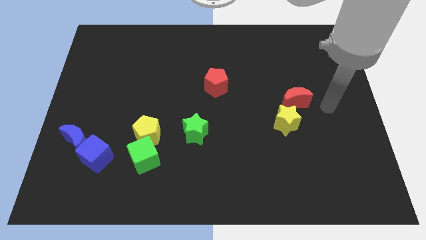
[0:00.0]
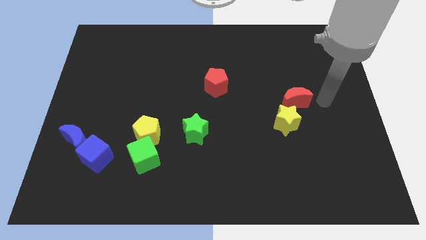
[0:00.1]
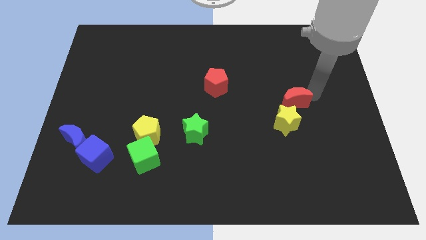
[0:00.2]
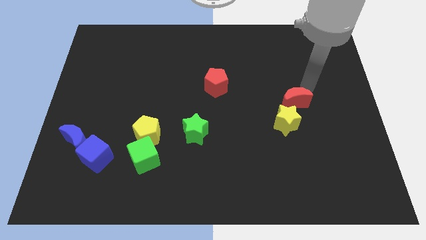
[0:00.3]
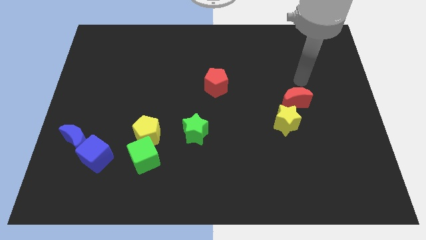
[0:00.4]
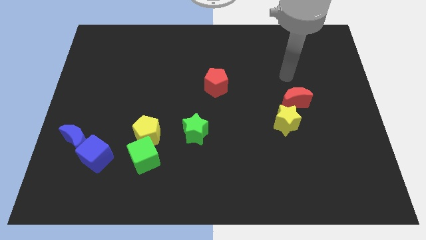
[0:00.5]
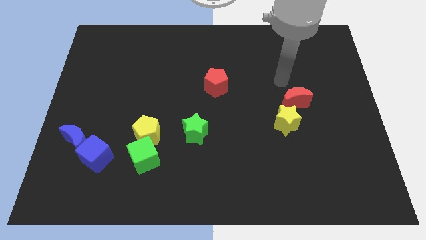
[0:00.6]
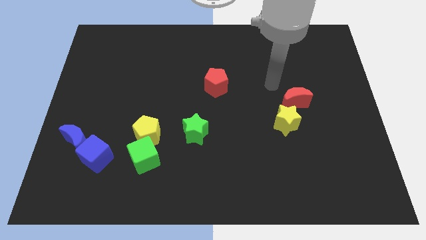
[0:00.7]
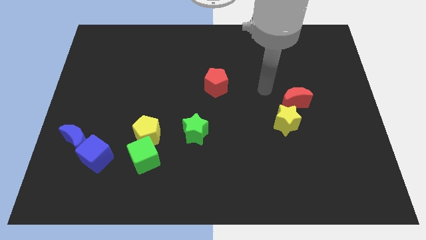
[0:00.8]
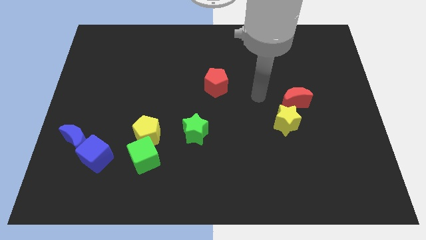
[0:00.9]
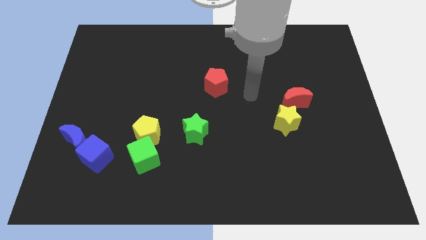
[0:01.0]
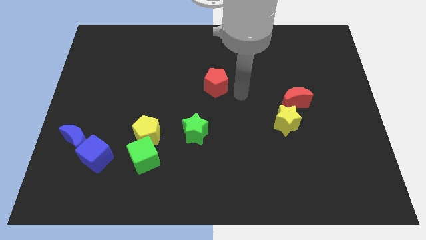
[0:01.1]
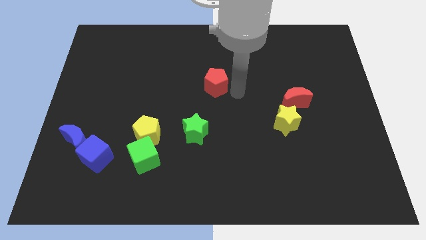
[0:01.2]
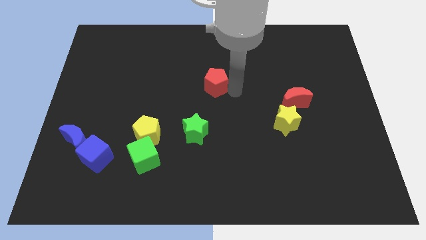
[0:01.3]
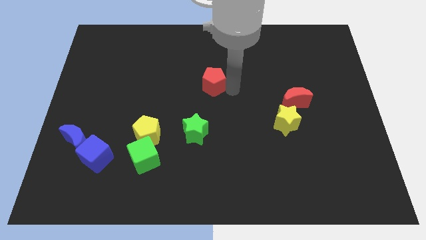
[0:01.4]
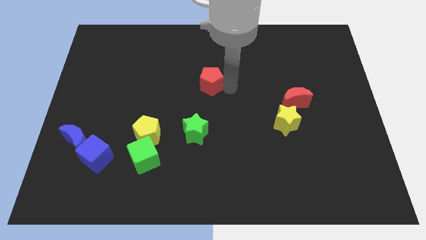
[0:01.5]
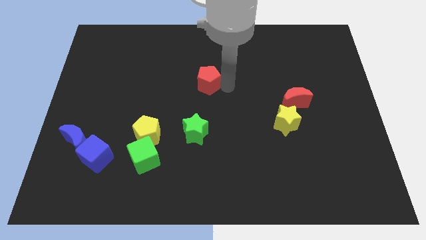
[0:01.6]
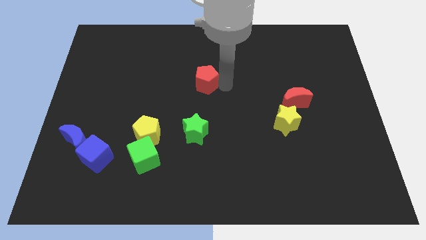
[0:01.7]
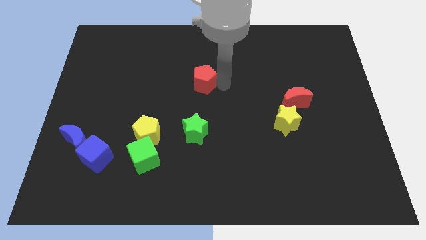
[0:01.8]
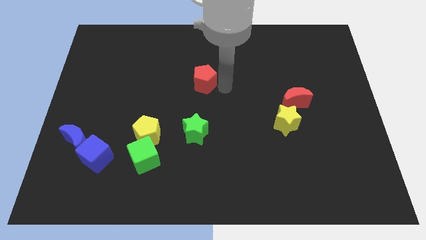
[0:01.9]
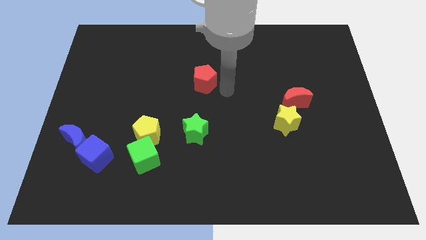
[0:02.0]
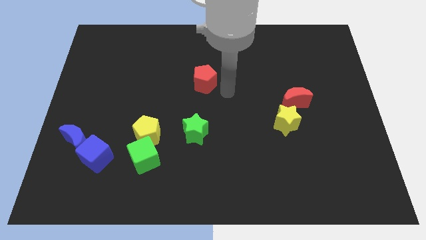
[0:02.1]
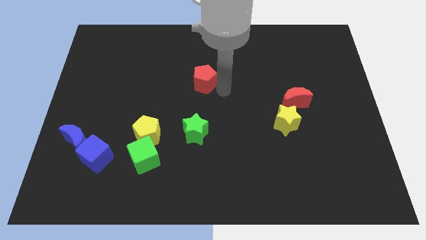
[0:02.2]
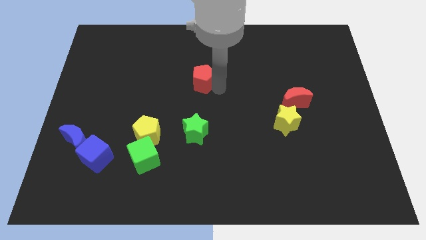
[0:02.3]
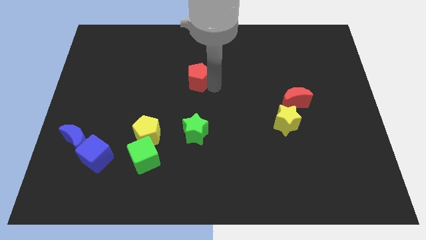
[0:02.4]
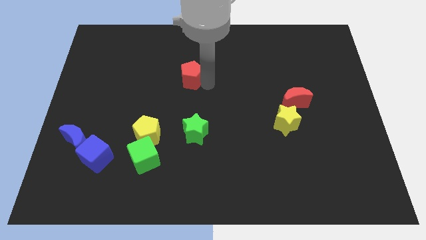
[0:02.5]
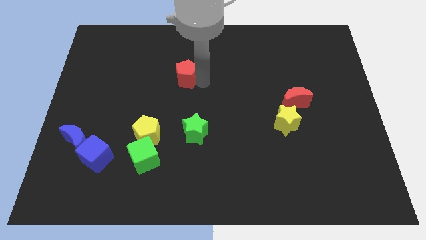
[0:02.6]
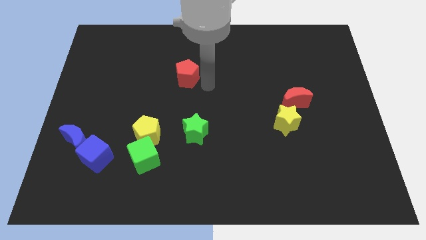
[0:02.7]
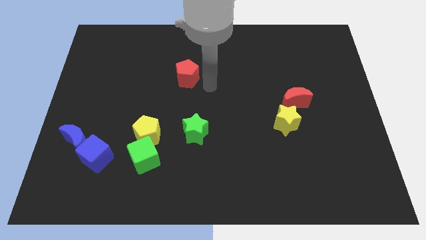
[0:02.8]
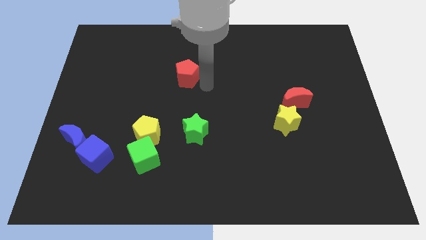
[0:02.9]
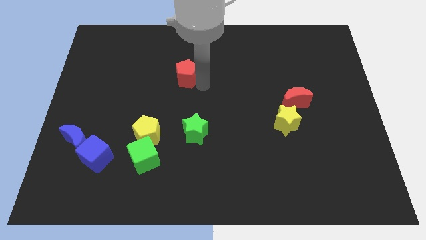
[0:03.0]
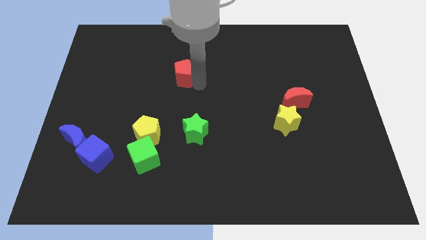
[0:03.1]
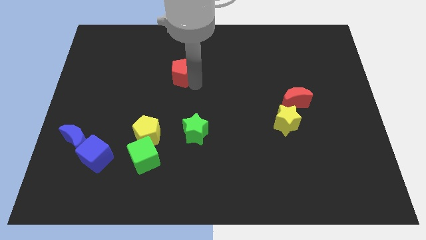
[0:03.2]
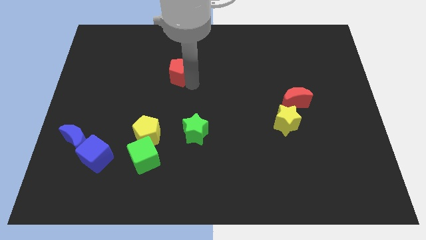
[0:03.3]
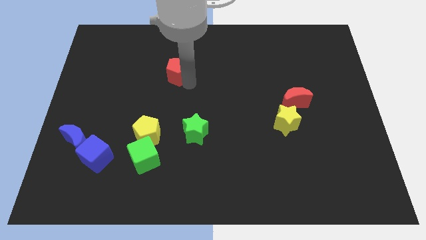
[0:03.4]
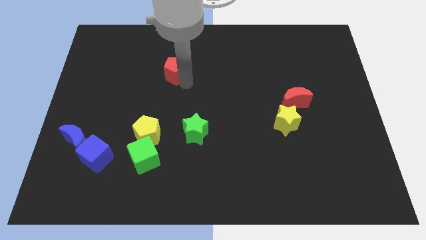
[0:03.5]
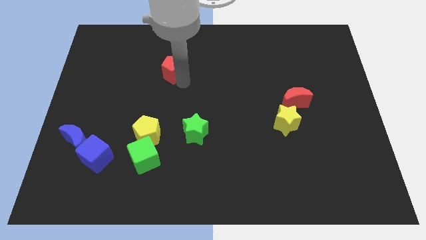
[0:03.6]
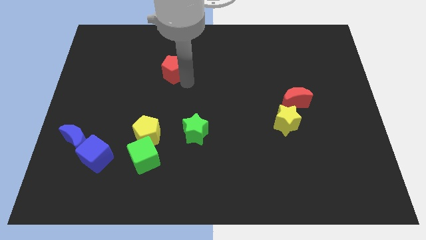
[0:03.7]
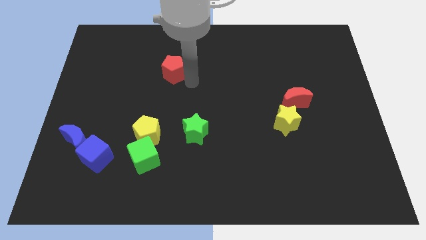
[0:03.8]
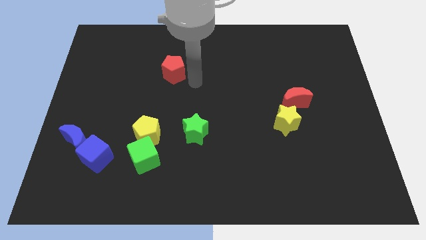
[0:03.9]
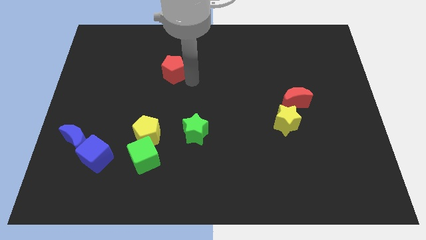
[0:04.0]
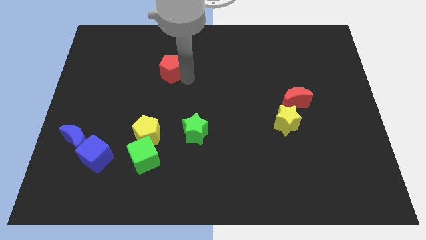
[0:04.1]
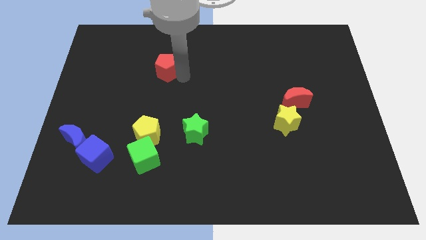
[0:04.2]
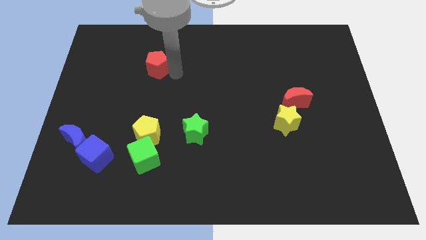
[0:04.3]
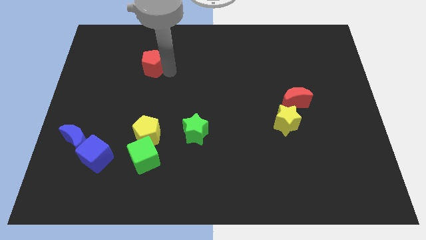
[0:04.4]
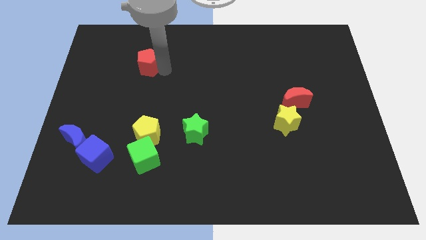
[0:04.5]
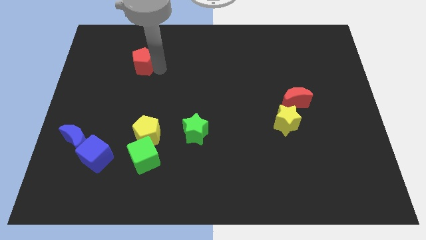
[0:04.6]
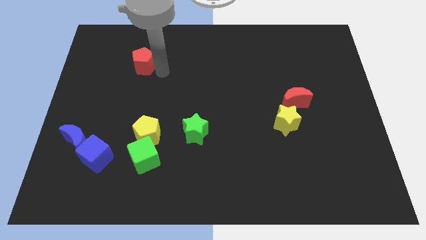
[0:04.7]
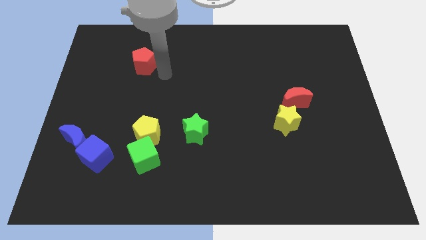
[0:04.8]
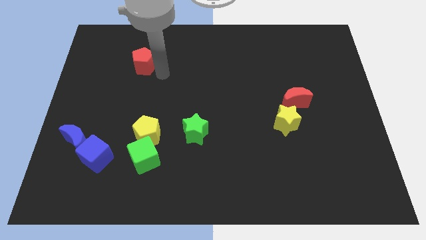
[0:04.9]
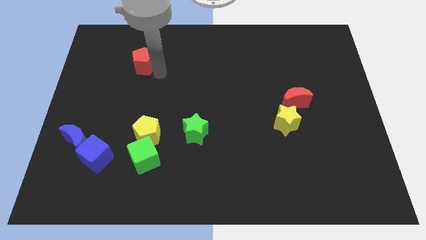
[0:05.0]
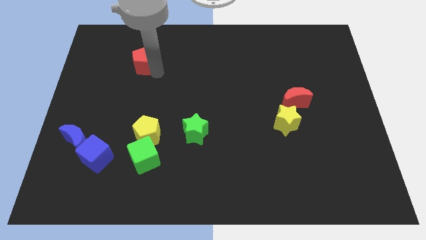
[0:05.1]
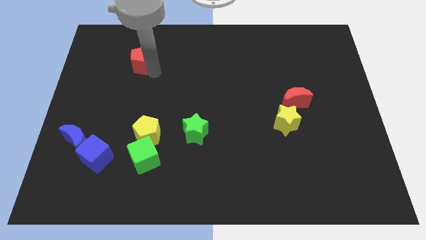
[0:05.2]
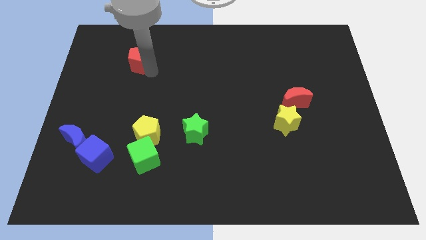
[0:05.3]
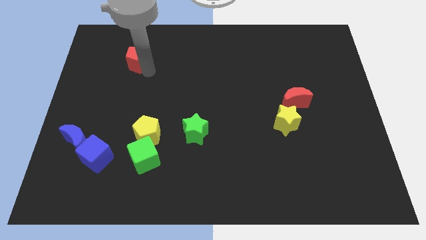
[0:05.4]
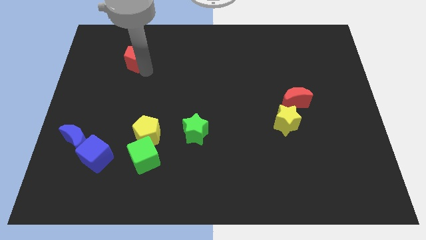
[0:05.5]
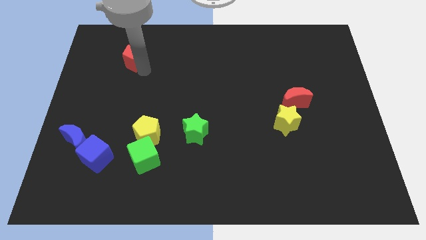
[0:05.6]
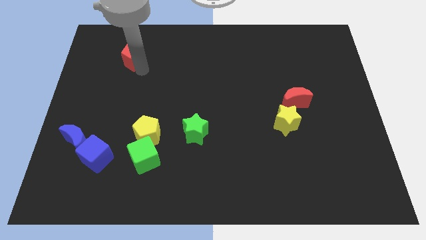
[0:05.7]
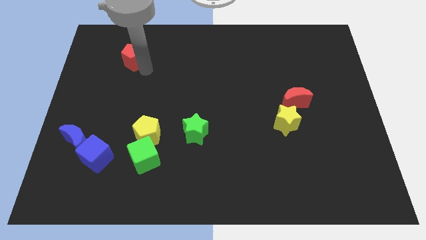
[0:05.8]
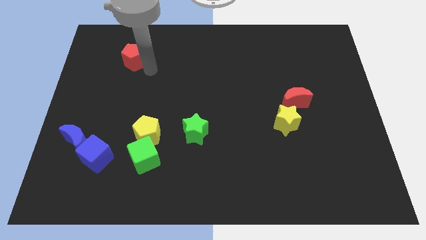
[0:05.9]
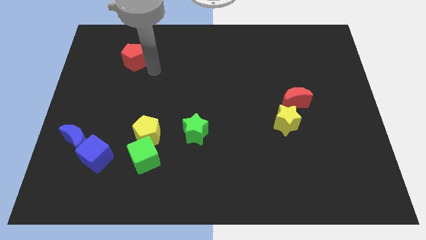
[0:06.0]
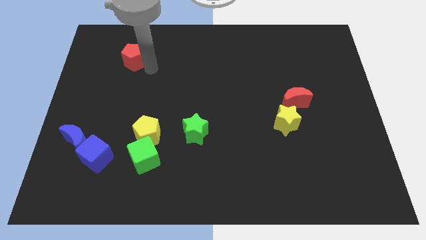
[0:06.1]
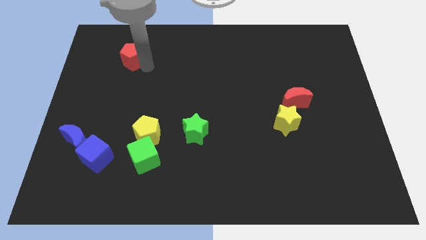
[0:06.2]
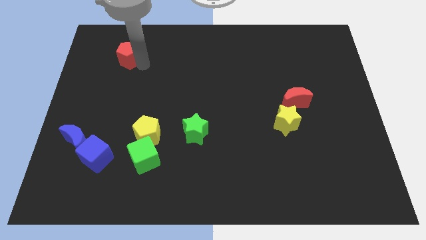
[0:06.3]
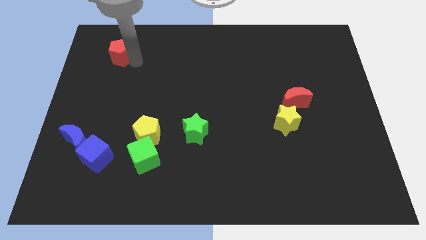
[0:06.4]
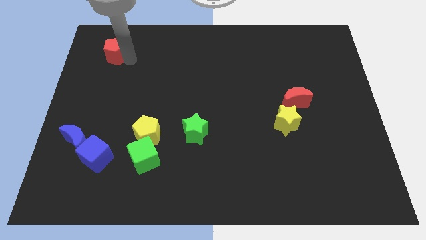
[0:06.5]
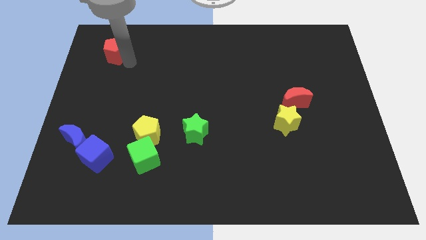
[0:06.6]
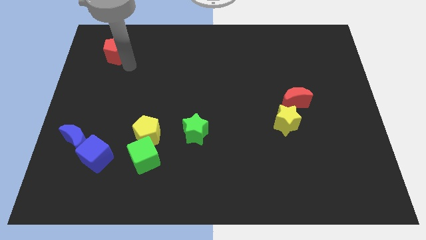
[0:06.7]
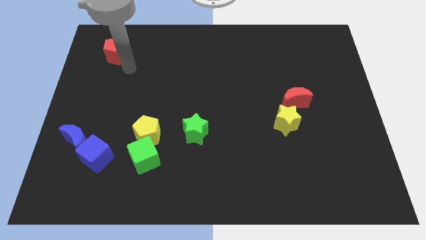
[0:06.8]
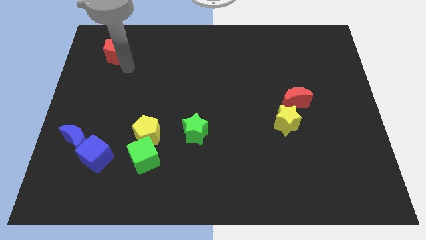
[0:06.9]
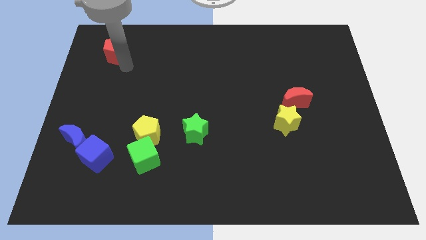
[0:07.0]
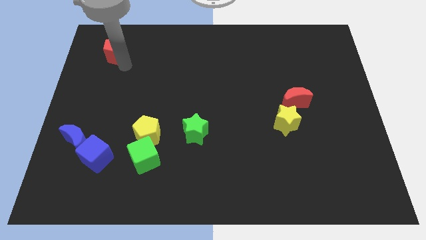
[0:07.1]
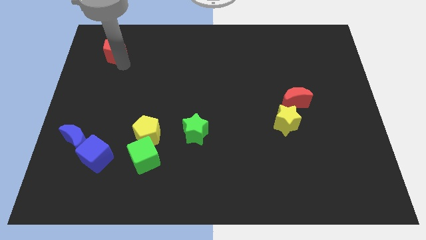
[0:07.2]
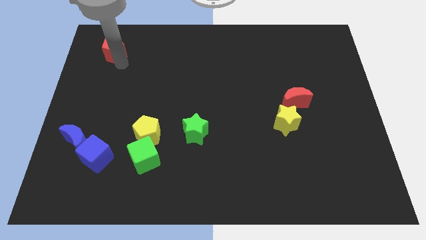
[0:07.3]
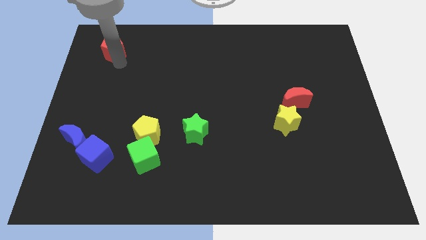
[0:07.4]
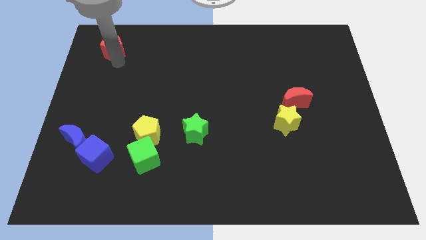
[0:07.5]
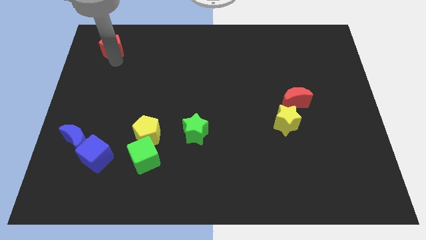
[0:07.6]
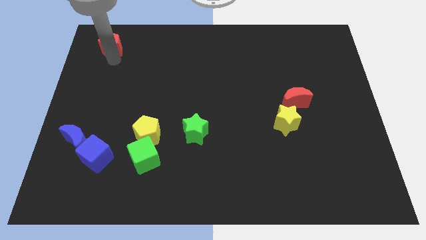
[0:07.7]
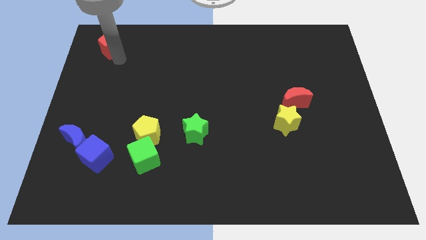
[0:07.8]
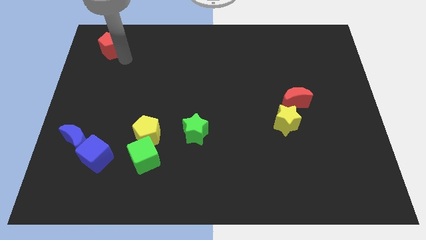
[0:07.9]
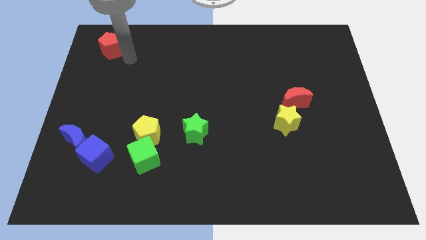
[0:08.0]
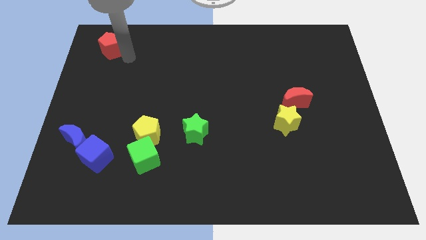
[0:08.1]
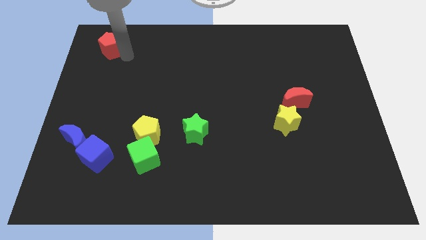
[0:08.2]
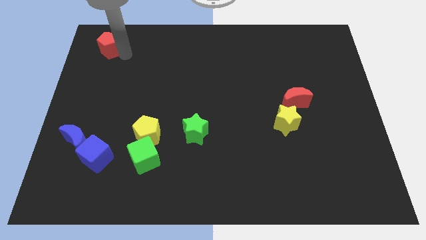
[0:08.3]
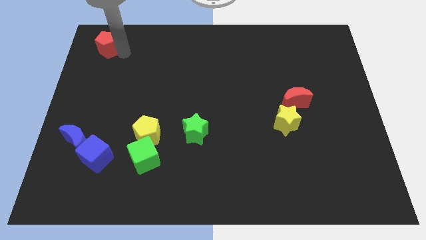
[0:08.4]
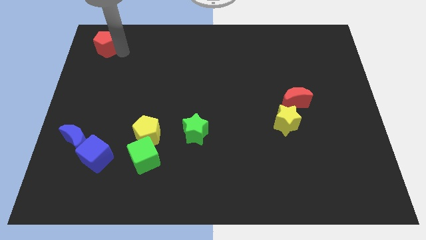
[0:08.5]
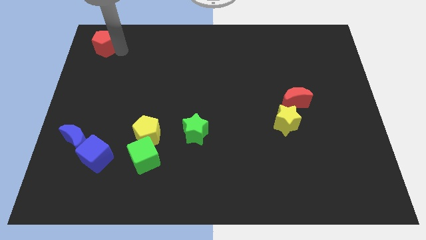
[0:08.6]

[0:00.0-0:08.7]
push the red pentagon to the top left of the board
